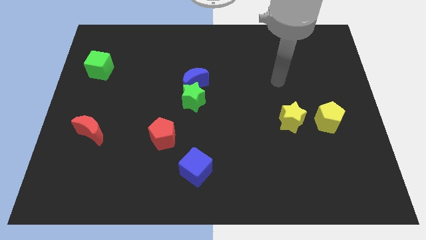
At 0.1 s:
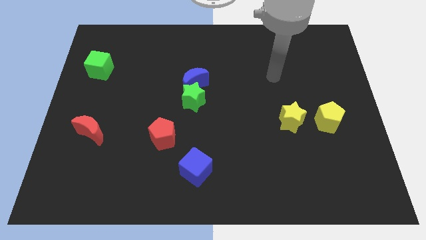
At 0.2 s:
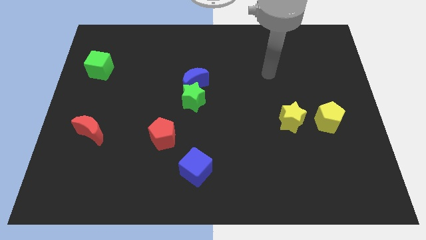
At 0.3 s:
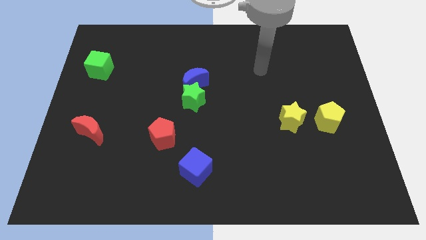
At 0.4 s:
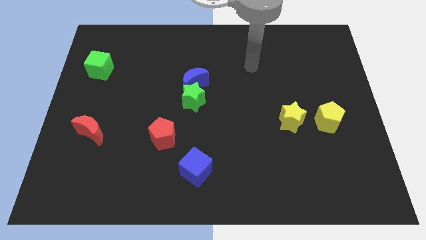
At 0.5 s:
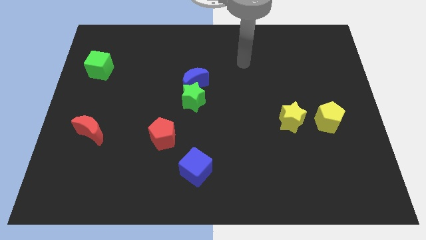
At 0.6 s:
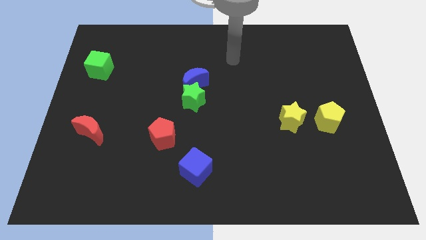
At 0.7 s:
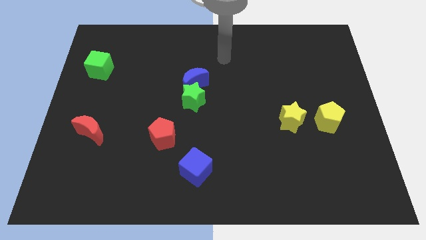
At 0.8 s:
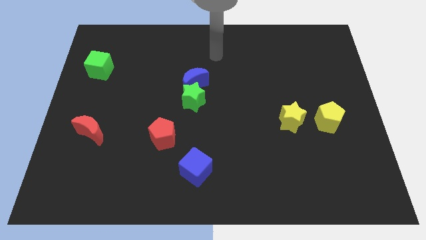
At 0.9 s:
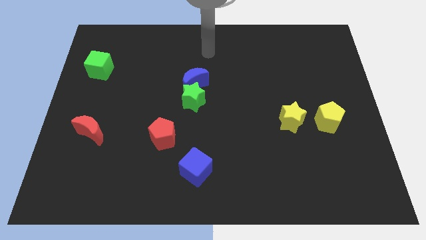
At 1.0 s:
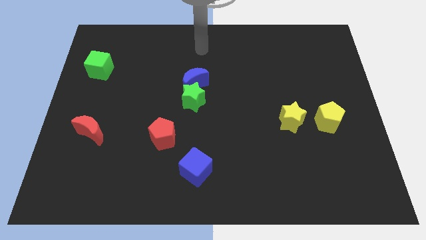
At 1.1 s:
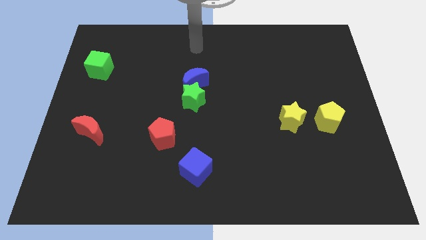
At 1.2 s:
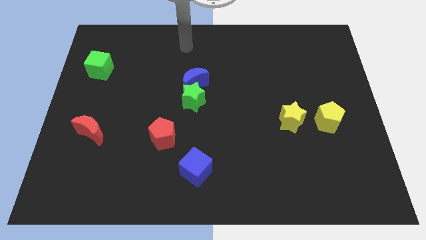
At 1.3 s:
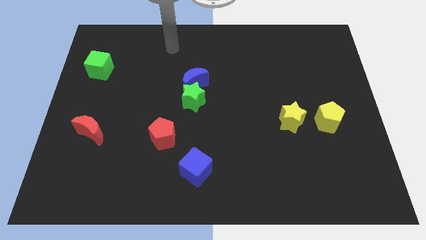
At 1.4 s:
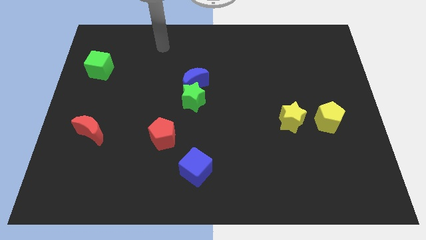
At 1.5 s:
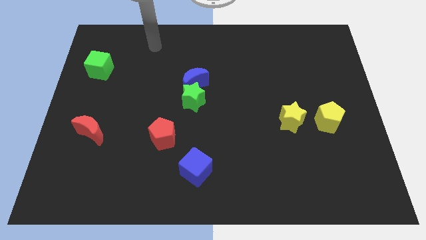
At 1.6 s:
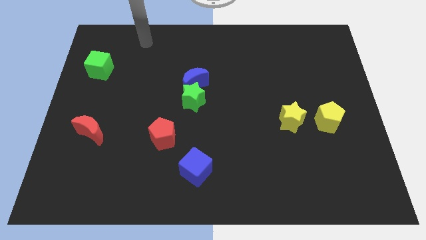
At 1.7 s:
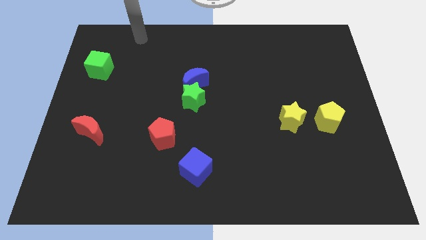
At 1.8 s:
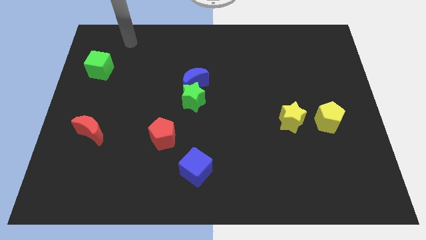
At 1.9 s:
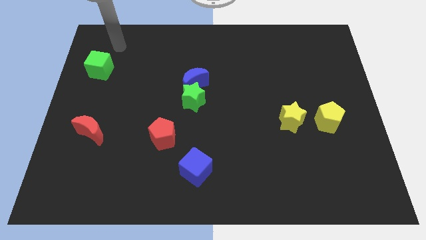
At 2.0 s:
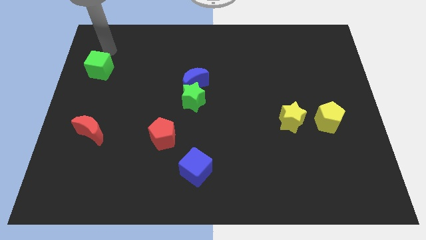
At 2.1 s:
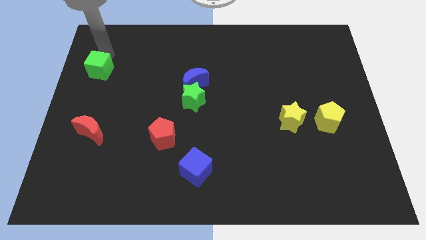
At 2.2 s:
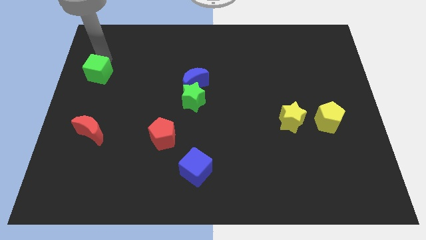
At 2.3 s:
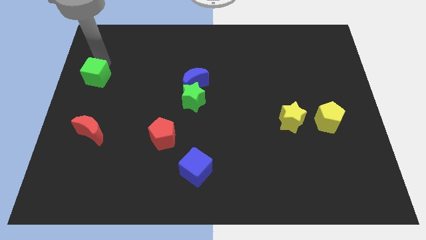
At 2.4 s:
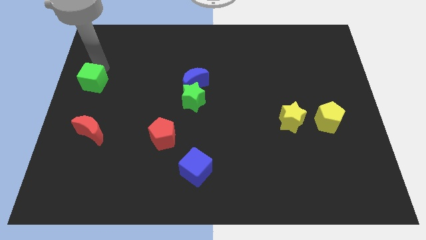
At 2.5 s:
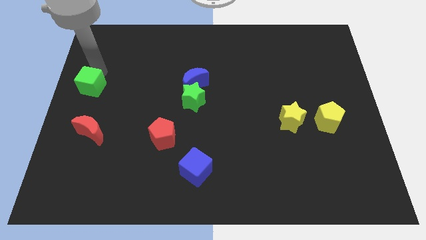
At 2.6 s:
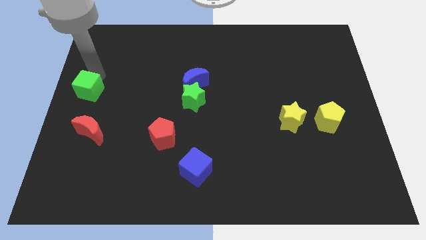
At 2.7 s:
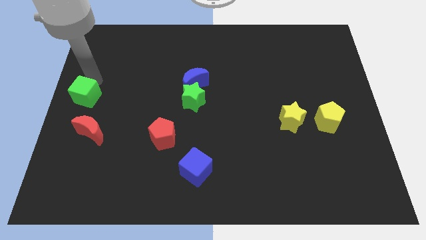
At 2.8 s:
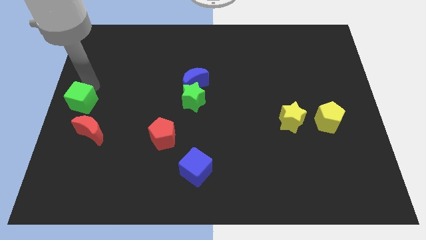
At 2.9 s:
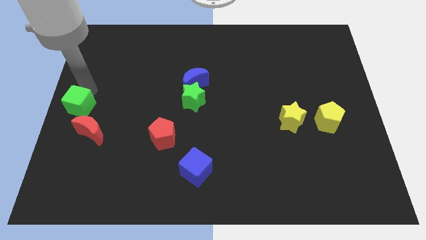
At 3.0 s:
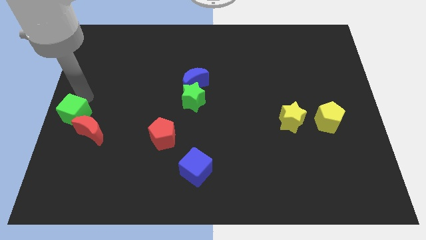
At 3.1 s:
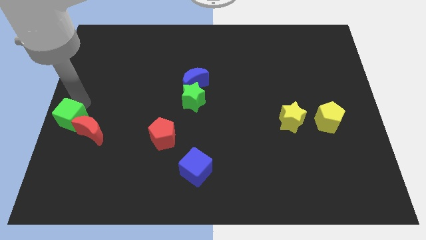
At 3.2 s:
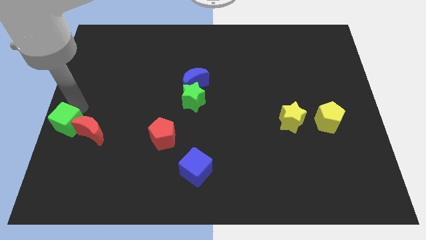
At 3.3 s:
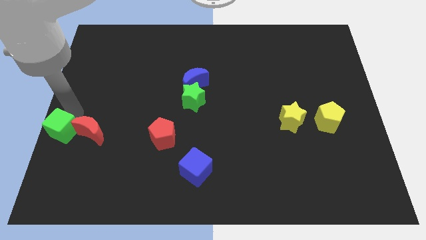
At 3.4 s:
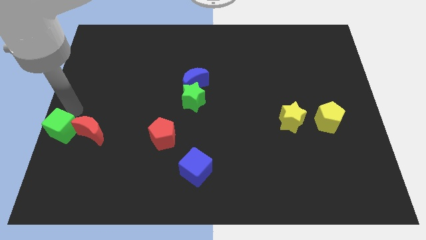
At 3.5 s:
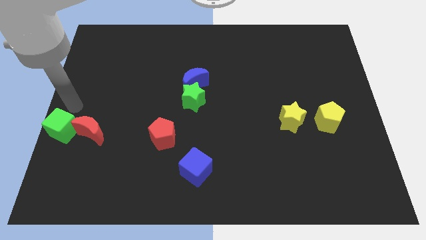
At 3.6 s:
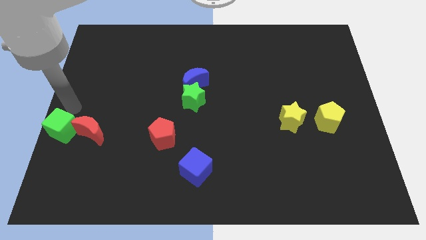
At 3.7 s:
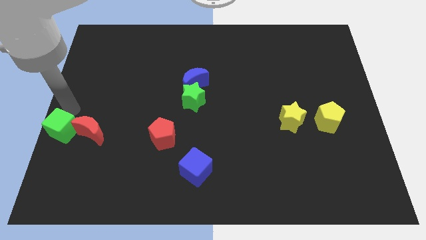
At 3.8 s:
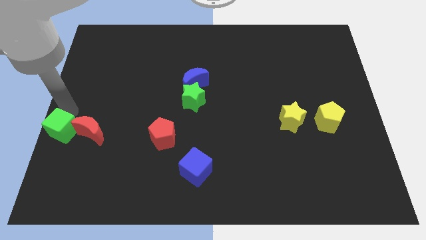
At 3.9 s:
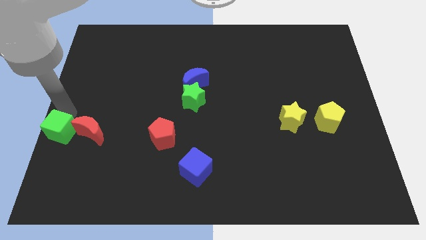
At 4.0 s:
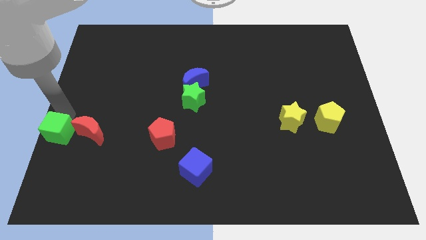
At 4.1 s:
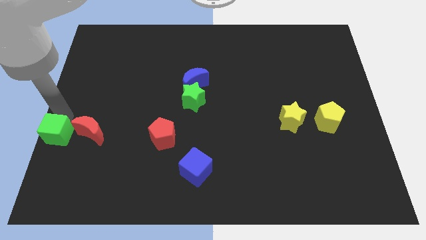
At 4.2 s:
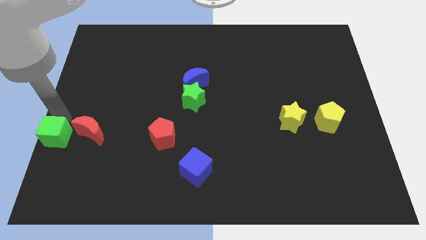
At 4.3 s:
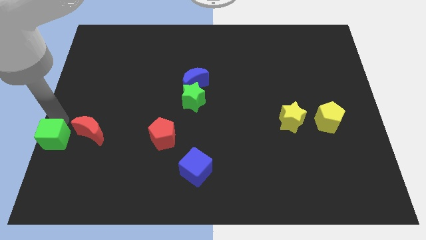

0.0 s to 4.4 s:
push the green cube down

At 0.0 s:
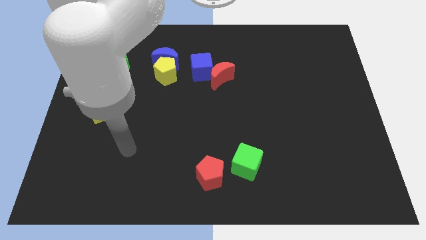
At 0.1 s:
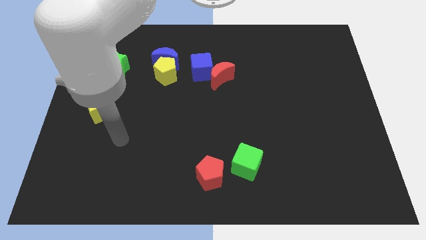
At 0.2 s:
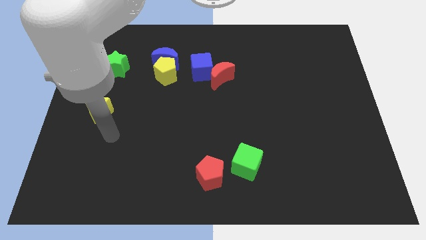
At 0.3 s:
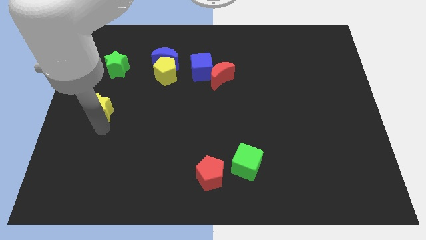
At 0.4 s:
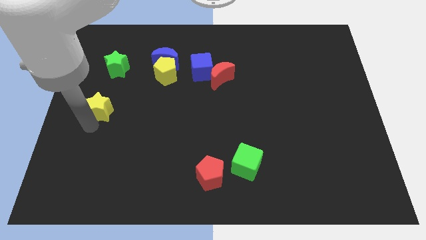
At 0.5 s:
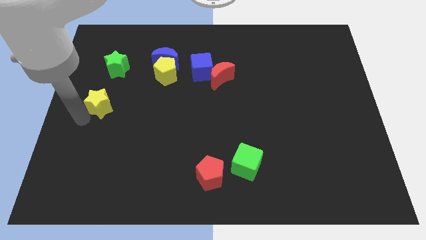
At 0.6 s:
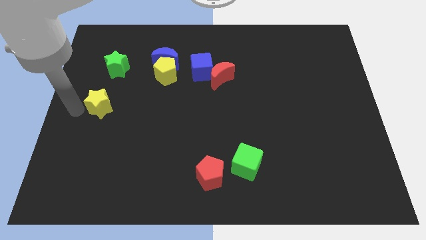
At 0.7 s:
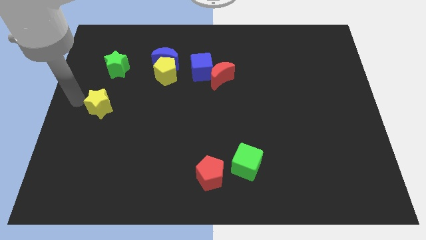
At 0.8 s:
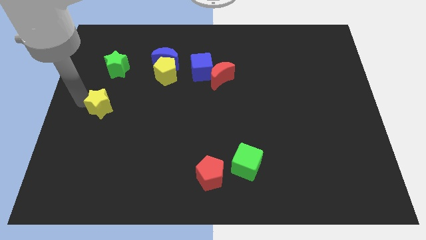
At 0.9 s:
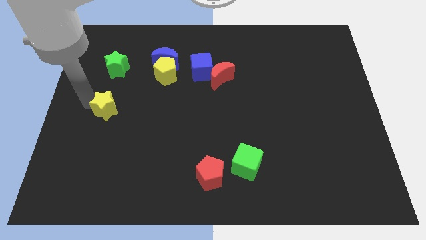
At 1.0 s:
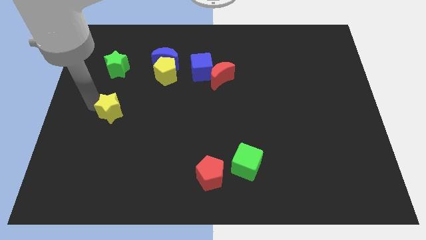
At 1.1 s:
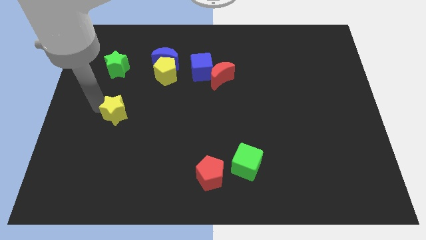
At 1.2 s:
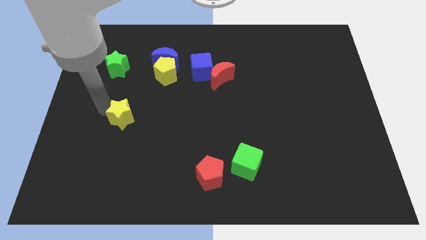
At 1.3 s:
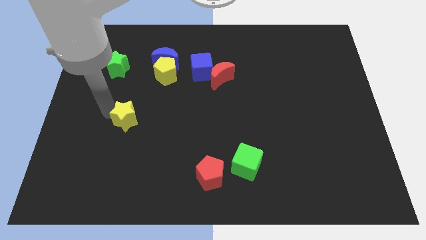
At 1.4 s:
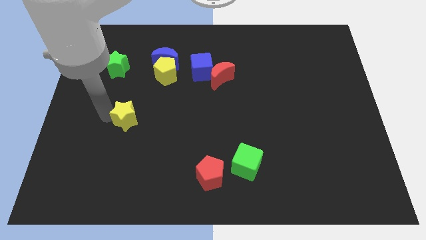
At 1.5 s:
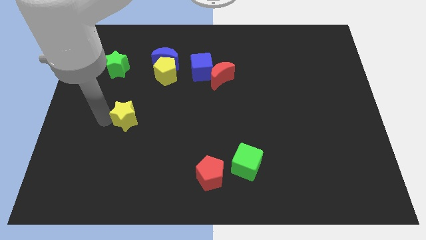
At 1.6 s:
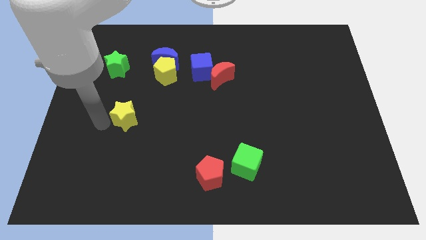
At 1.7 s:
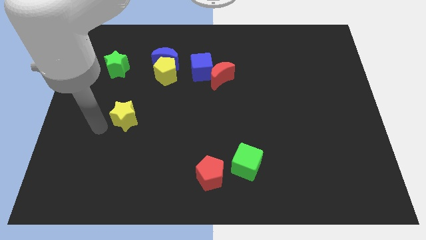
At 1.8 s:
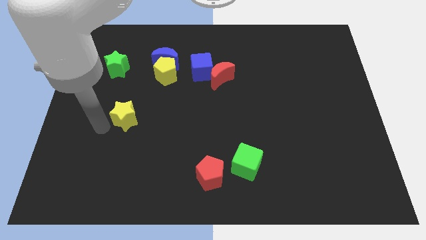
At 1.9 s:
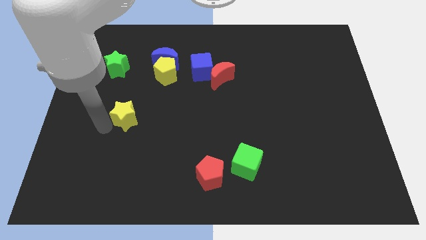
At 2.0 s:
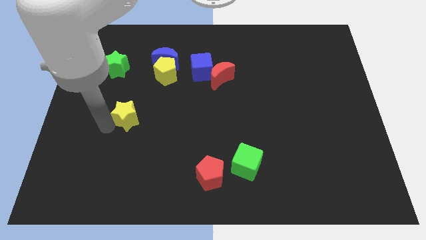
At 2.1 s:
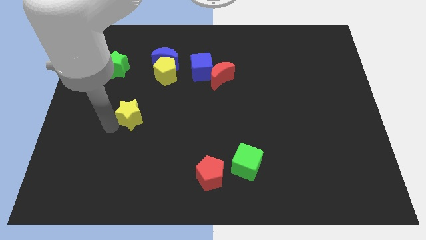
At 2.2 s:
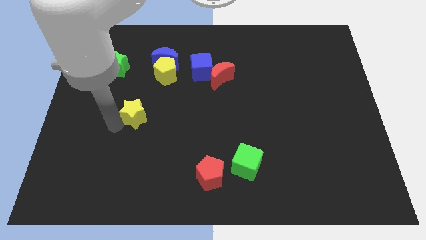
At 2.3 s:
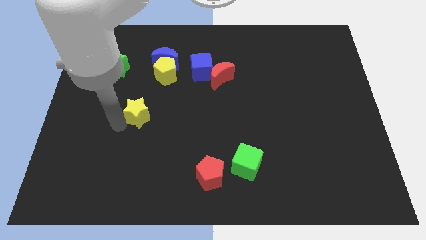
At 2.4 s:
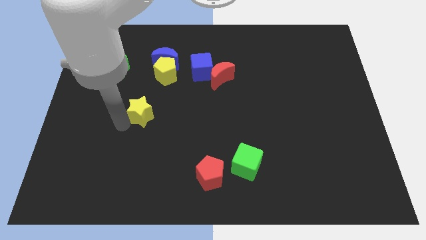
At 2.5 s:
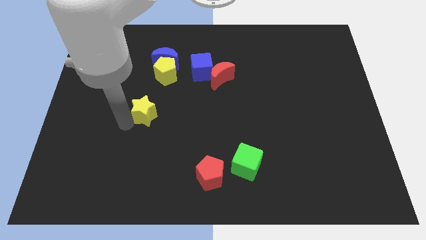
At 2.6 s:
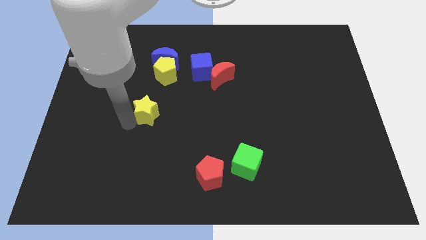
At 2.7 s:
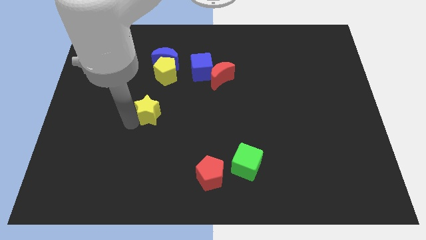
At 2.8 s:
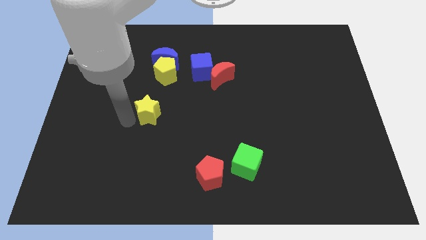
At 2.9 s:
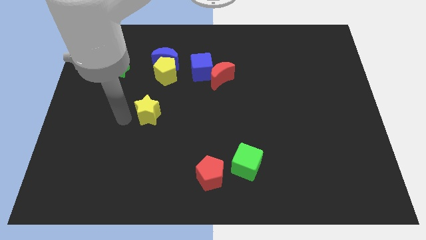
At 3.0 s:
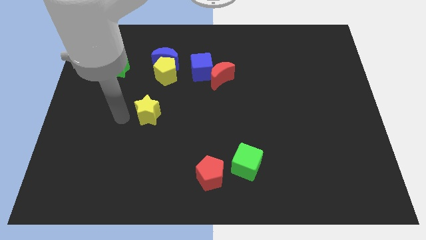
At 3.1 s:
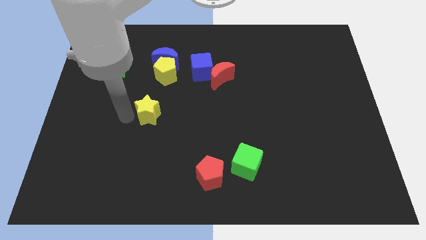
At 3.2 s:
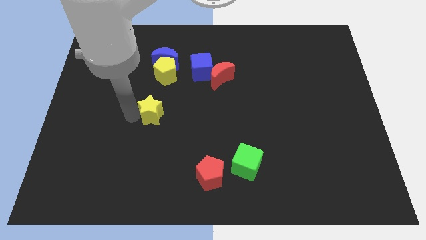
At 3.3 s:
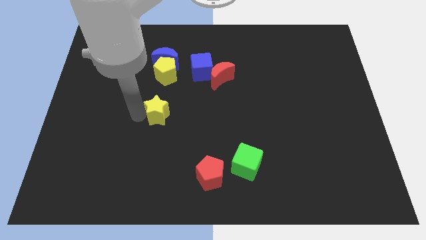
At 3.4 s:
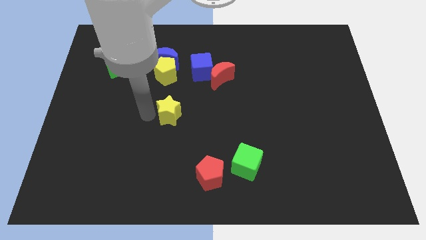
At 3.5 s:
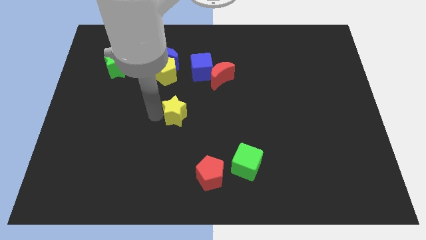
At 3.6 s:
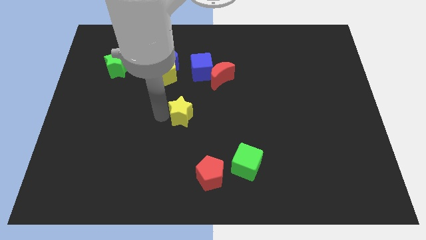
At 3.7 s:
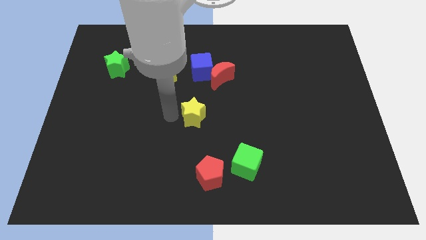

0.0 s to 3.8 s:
push the yellow star to the right

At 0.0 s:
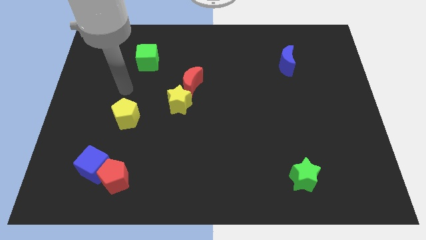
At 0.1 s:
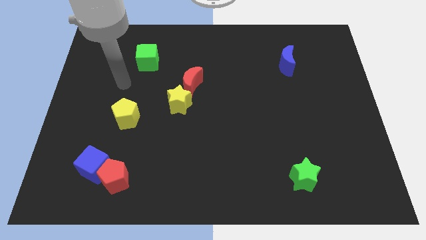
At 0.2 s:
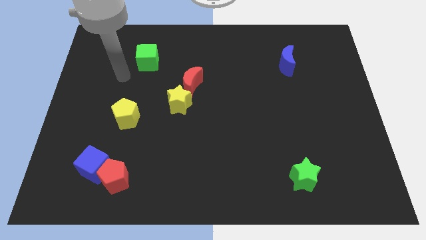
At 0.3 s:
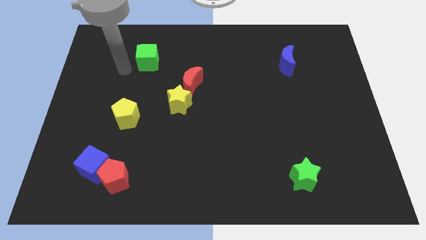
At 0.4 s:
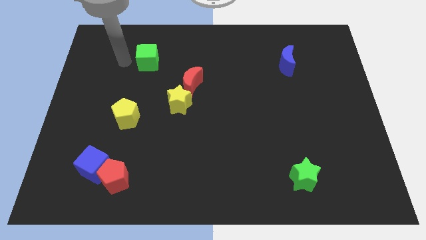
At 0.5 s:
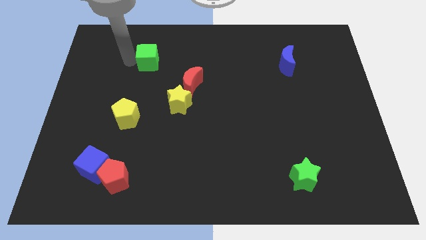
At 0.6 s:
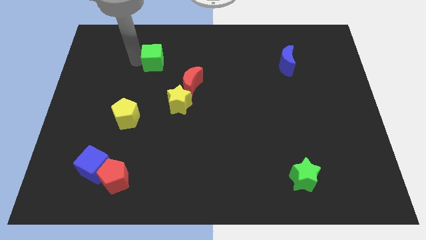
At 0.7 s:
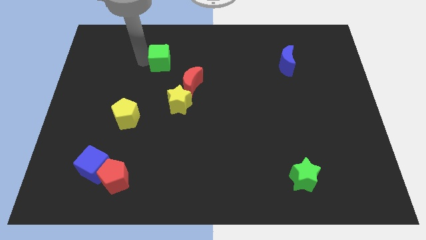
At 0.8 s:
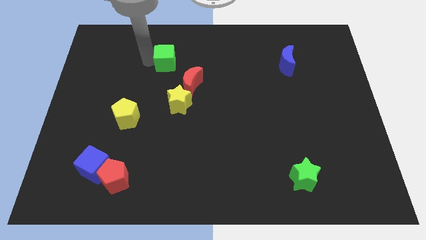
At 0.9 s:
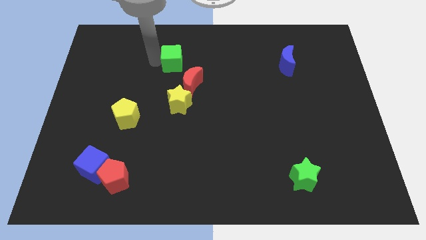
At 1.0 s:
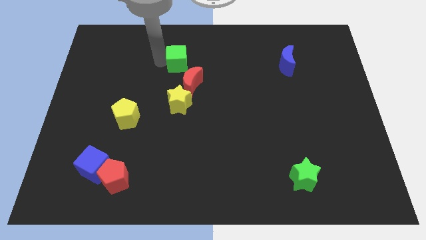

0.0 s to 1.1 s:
push the green cube right somewhat
